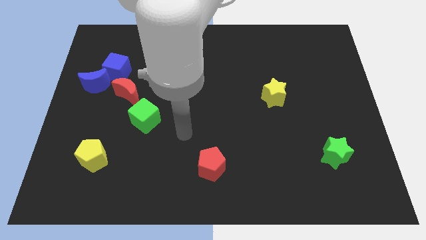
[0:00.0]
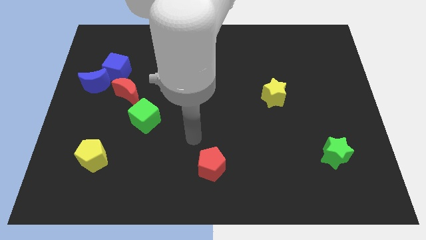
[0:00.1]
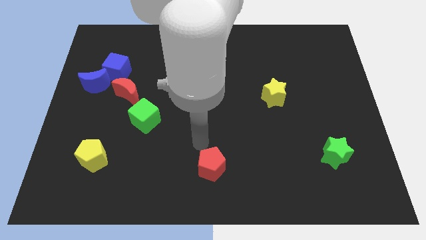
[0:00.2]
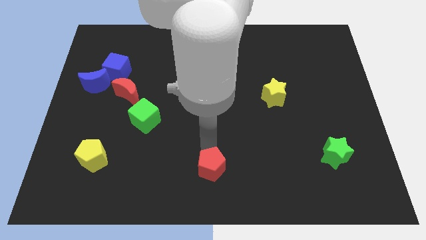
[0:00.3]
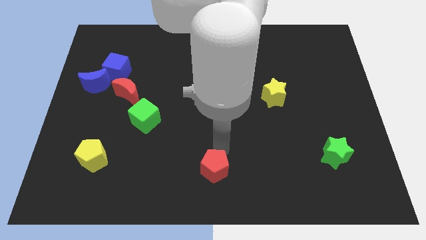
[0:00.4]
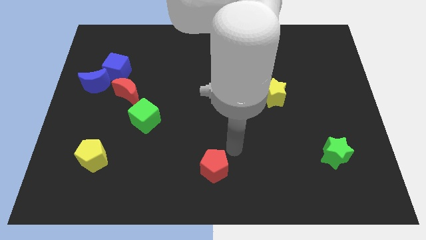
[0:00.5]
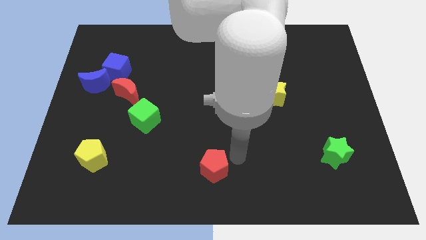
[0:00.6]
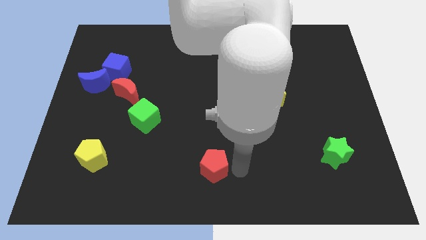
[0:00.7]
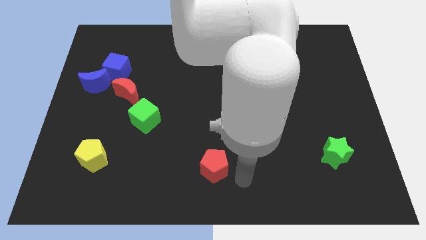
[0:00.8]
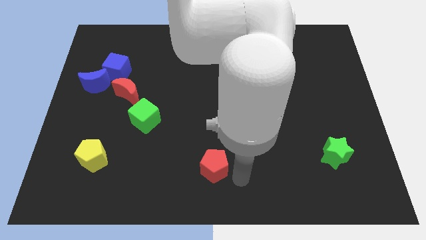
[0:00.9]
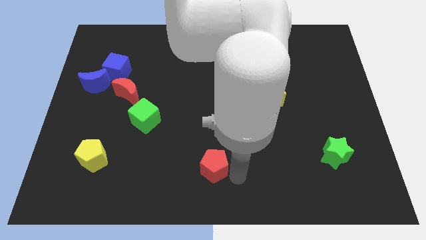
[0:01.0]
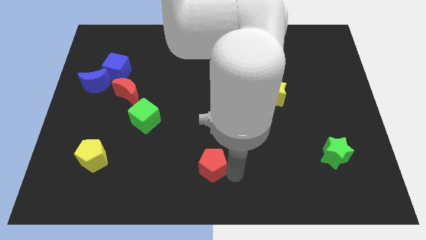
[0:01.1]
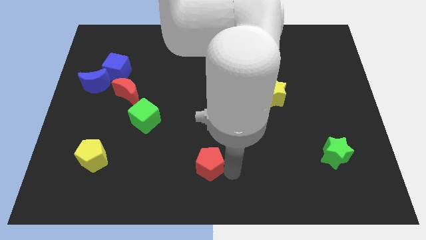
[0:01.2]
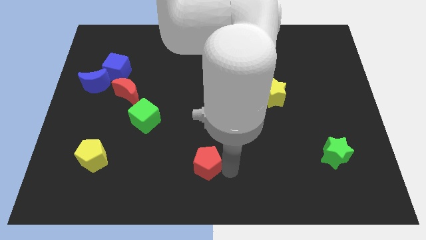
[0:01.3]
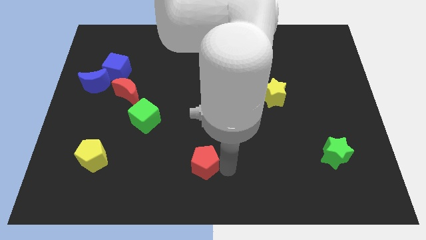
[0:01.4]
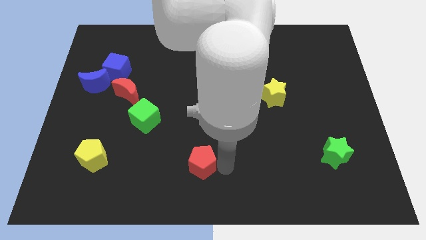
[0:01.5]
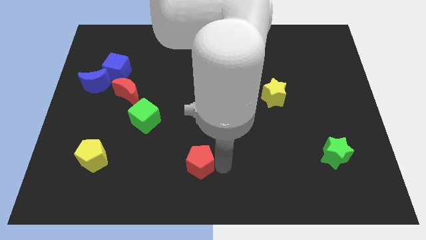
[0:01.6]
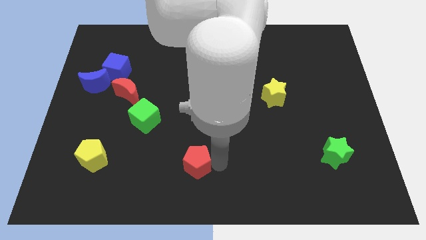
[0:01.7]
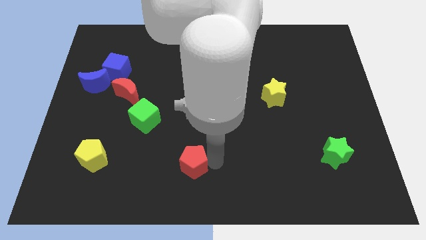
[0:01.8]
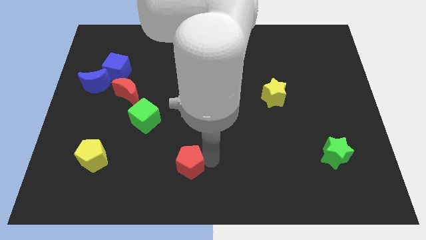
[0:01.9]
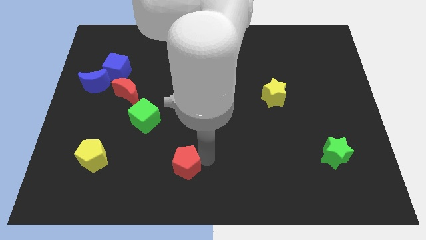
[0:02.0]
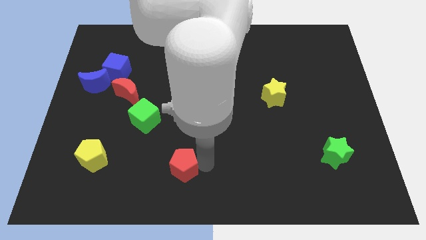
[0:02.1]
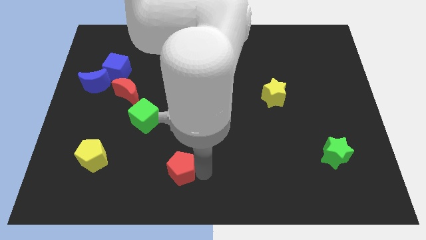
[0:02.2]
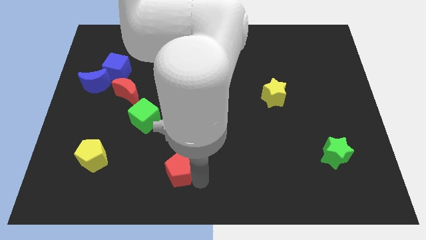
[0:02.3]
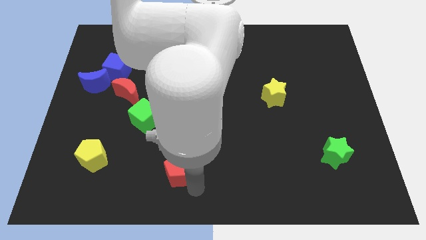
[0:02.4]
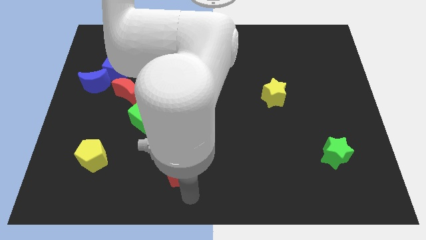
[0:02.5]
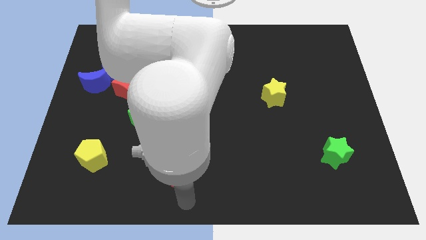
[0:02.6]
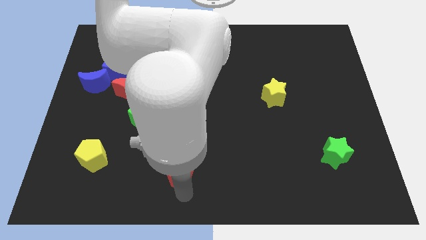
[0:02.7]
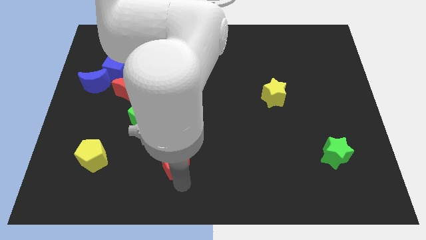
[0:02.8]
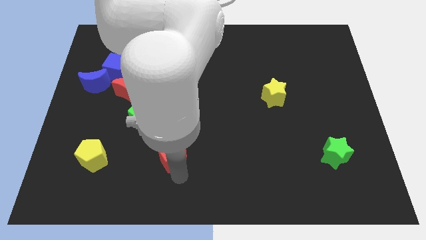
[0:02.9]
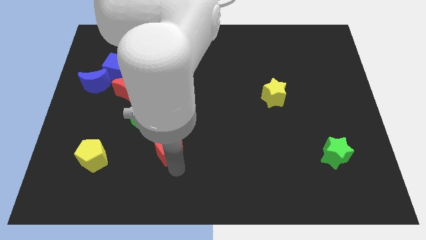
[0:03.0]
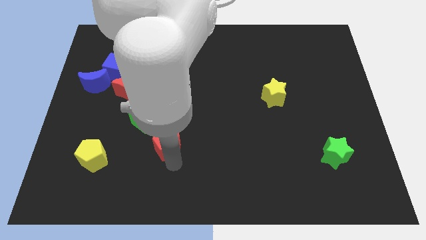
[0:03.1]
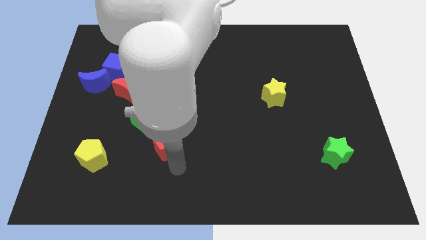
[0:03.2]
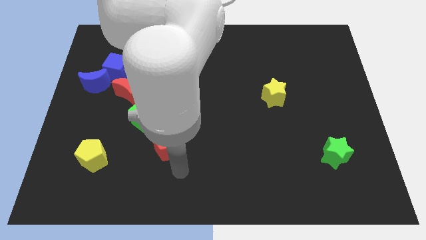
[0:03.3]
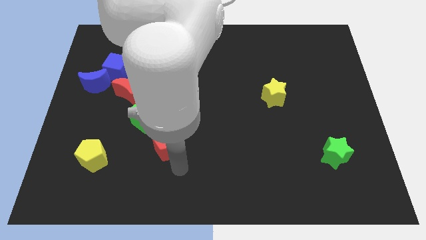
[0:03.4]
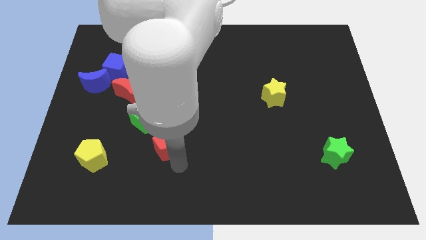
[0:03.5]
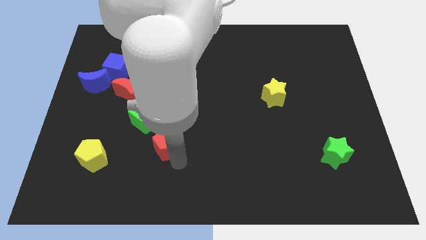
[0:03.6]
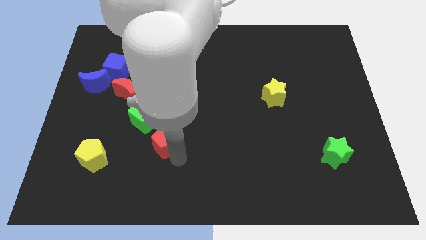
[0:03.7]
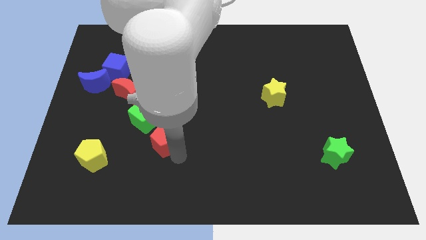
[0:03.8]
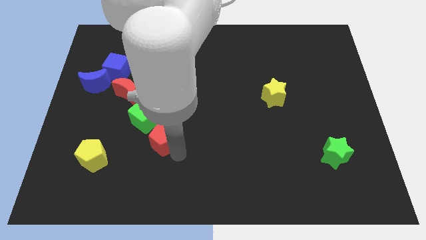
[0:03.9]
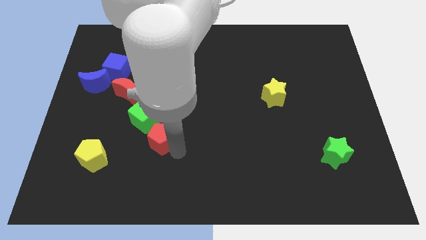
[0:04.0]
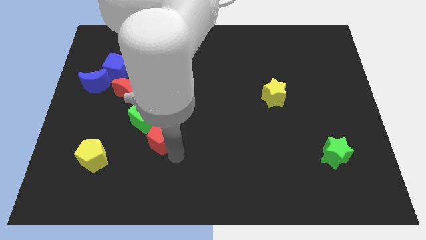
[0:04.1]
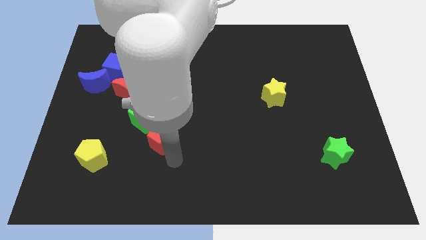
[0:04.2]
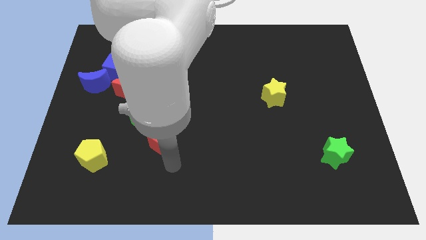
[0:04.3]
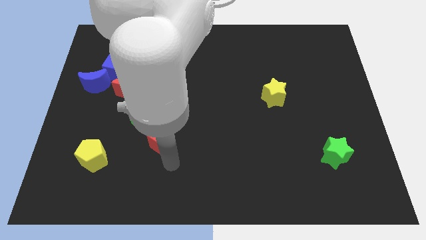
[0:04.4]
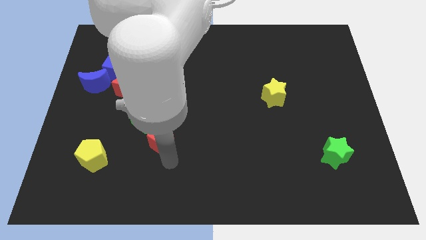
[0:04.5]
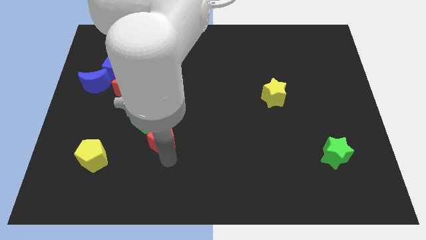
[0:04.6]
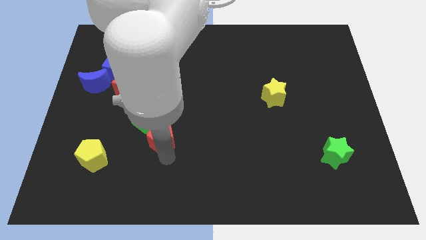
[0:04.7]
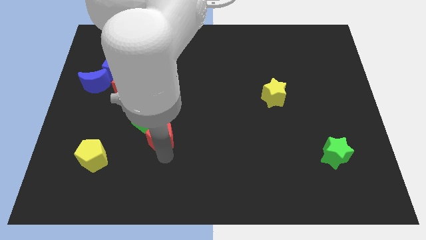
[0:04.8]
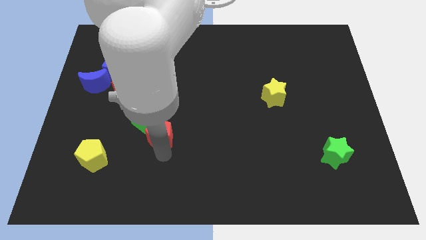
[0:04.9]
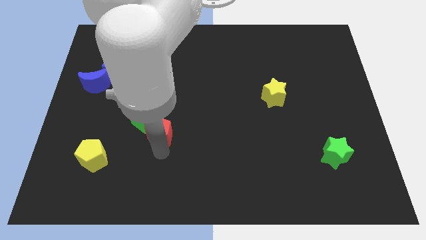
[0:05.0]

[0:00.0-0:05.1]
move the red pentagon close to the green cube

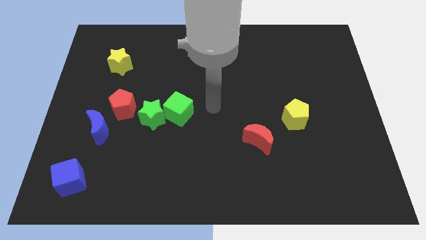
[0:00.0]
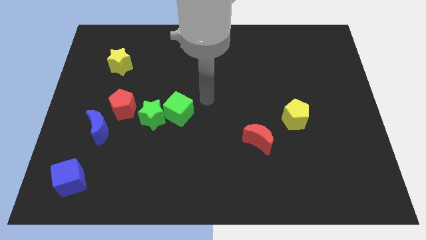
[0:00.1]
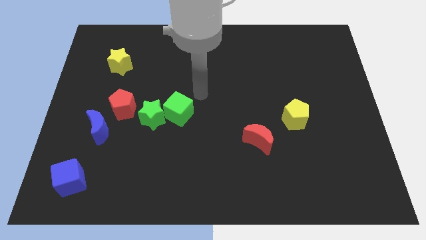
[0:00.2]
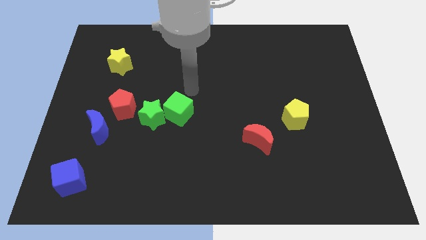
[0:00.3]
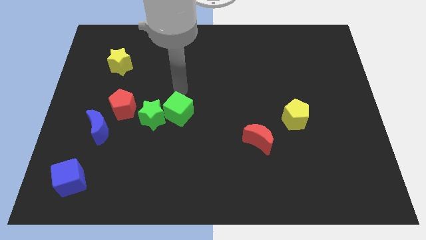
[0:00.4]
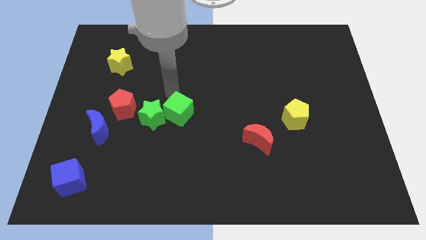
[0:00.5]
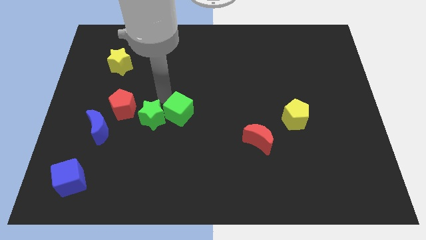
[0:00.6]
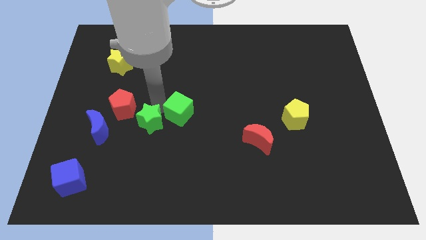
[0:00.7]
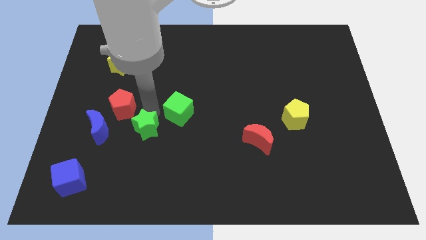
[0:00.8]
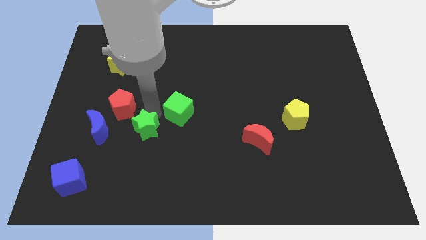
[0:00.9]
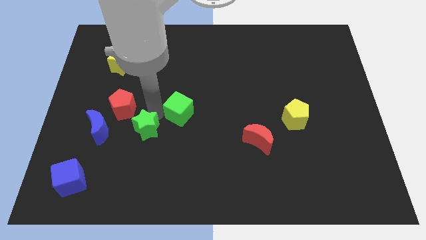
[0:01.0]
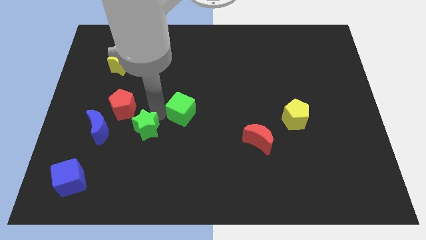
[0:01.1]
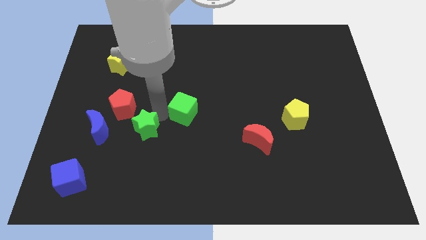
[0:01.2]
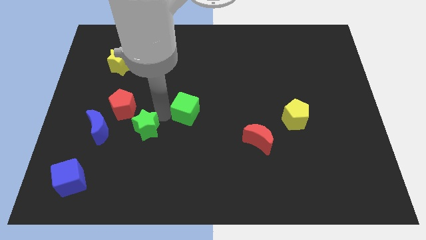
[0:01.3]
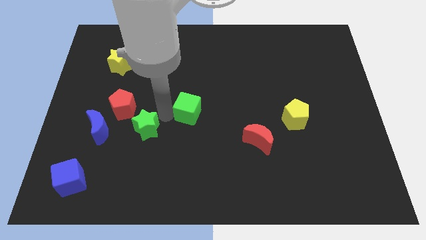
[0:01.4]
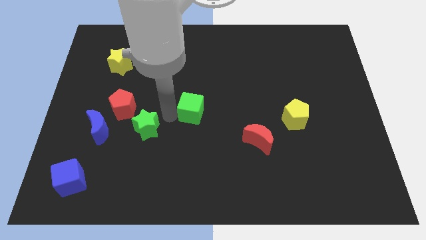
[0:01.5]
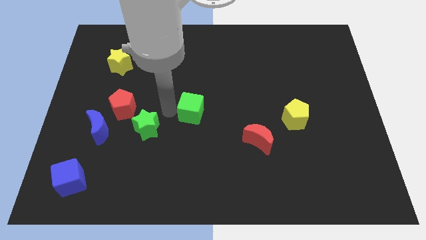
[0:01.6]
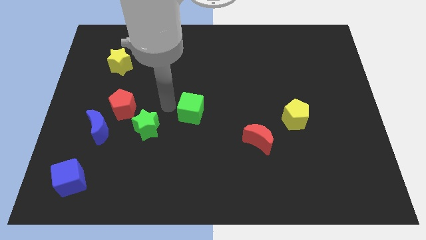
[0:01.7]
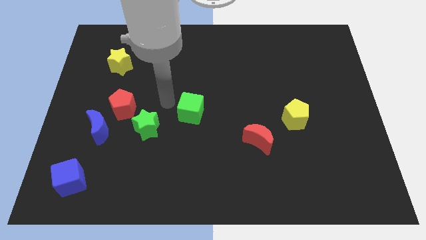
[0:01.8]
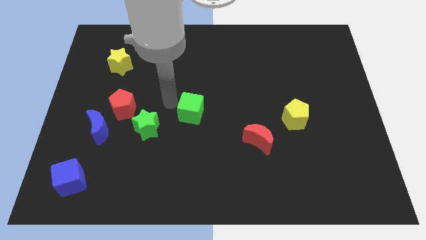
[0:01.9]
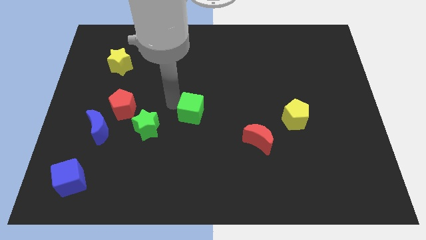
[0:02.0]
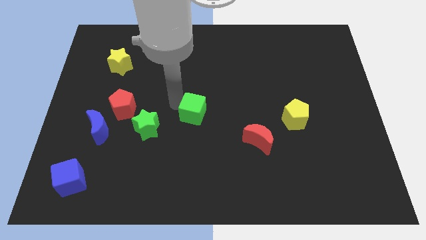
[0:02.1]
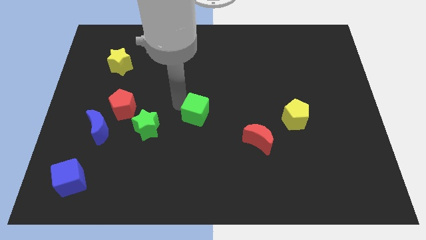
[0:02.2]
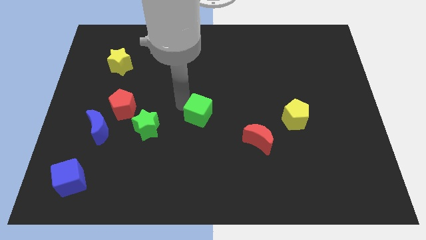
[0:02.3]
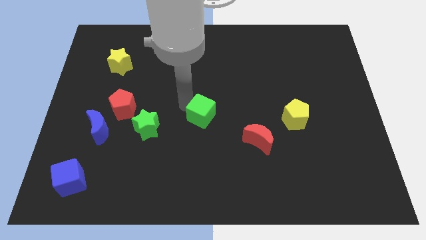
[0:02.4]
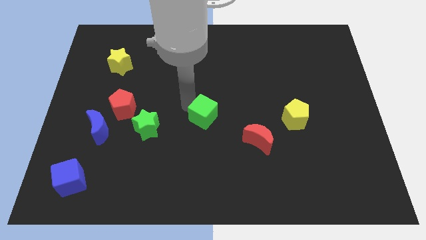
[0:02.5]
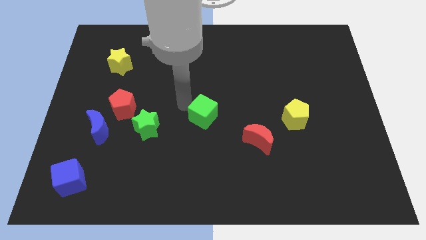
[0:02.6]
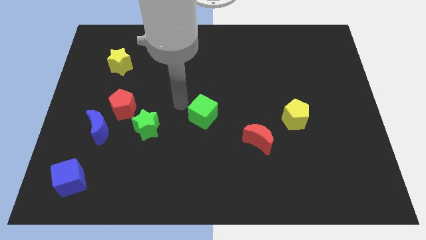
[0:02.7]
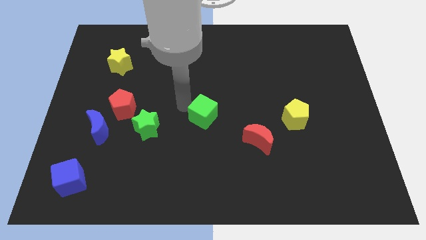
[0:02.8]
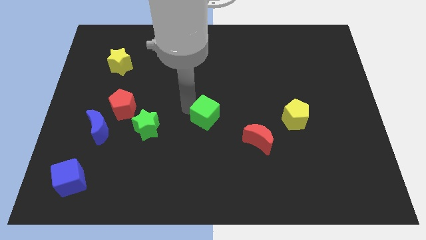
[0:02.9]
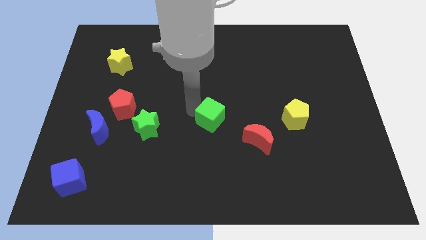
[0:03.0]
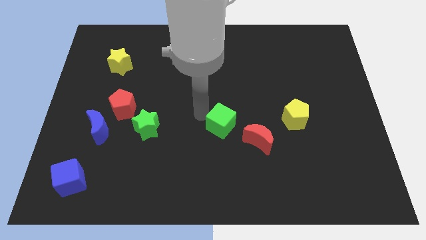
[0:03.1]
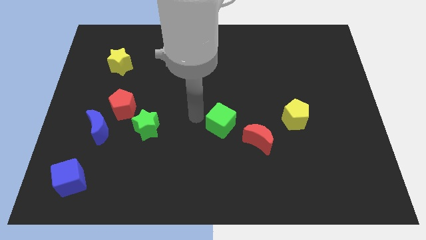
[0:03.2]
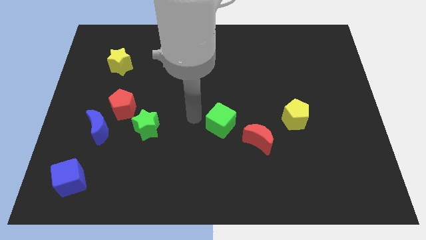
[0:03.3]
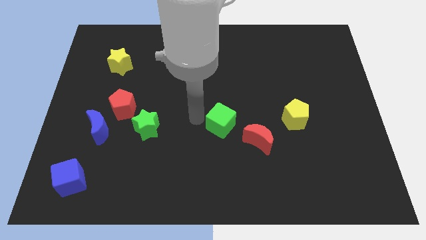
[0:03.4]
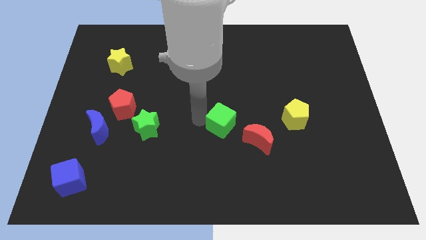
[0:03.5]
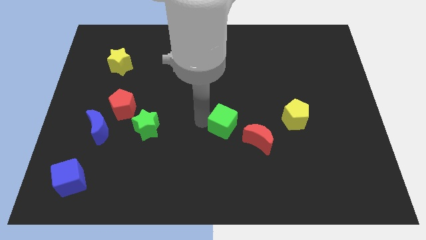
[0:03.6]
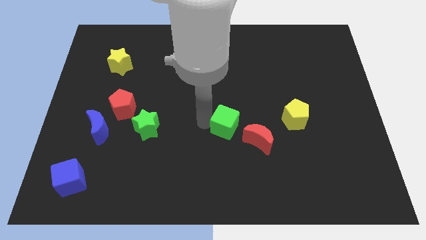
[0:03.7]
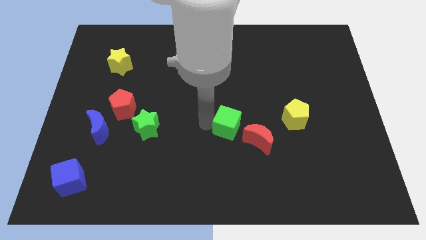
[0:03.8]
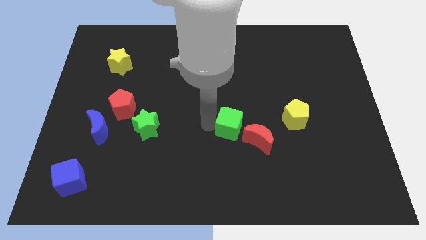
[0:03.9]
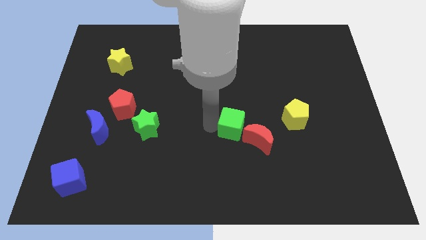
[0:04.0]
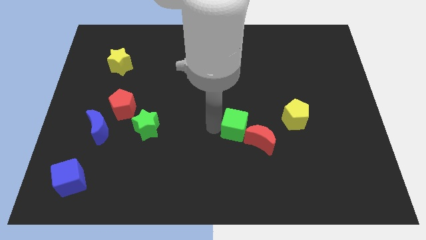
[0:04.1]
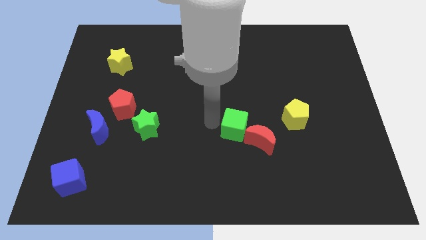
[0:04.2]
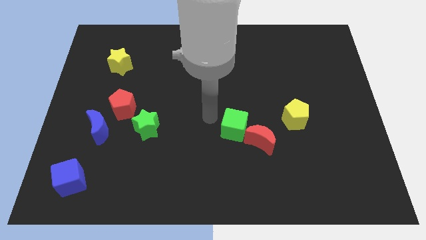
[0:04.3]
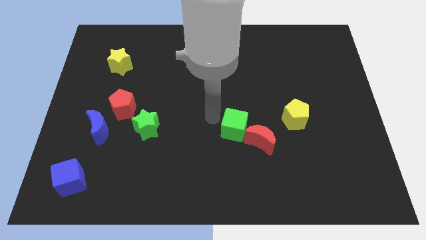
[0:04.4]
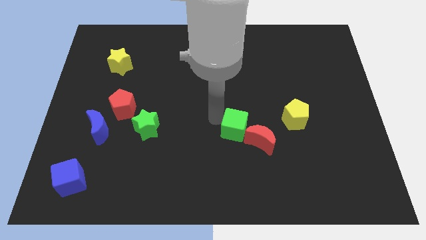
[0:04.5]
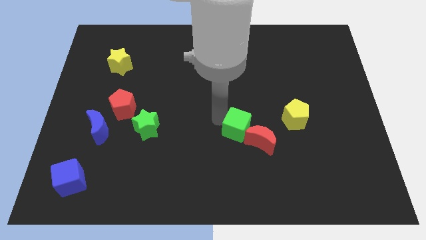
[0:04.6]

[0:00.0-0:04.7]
put the green cube close to the red moon
